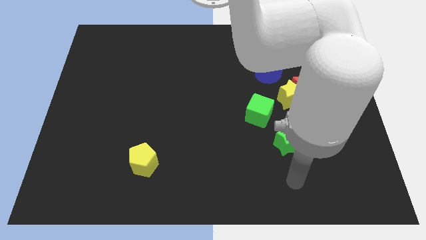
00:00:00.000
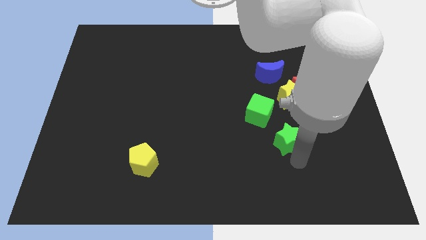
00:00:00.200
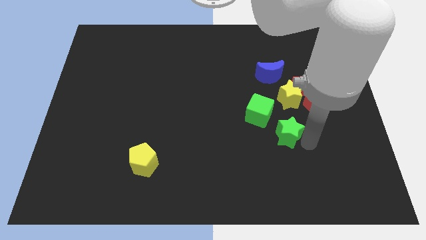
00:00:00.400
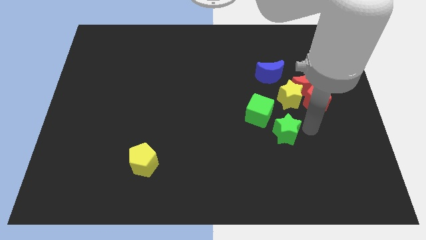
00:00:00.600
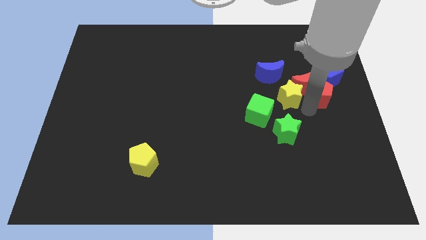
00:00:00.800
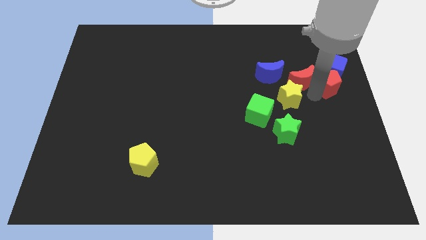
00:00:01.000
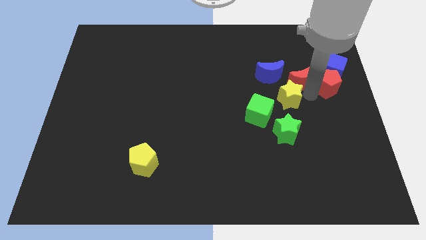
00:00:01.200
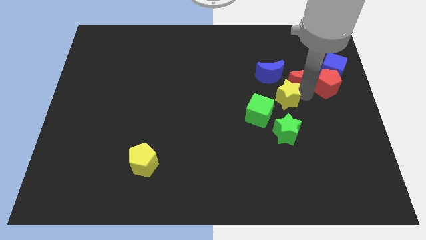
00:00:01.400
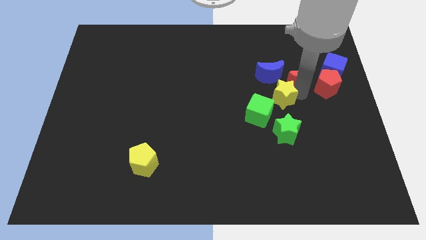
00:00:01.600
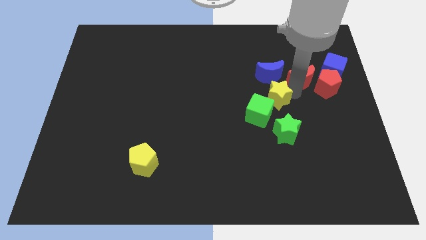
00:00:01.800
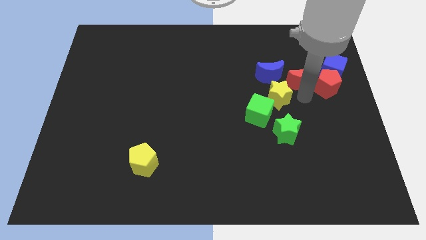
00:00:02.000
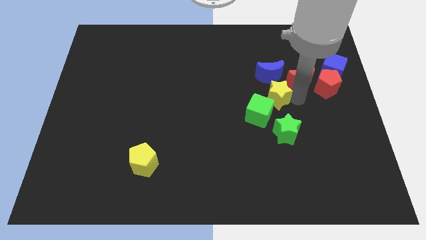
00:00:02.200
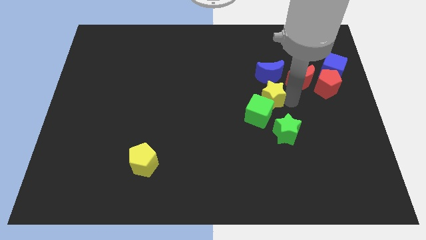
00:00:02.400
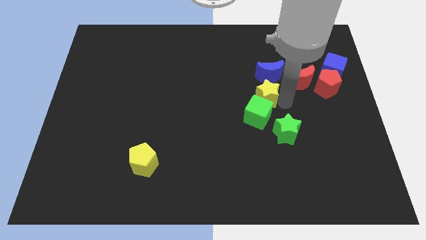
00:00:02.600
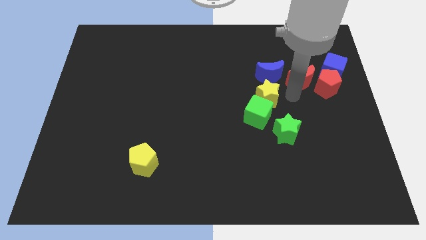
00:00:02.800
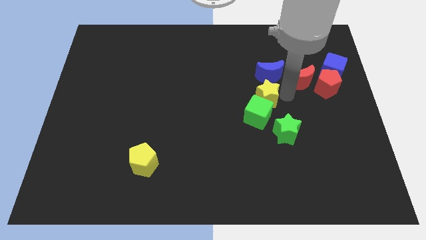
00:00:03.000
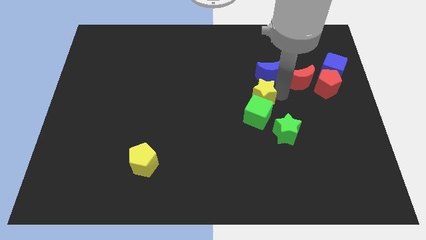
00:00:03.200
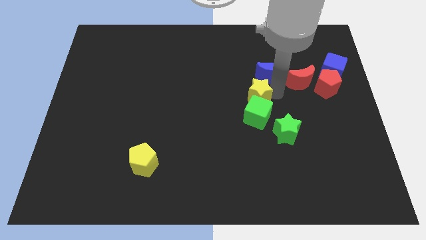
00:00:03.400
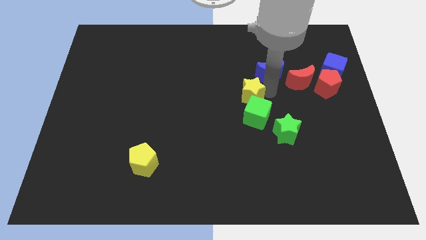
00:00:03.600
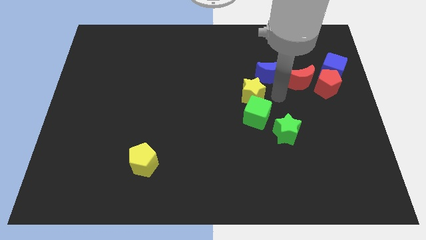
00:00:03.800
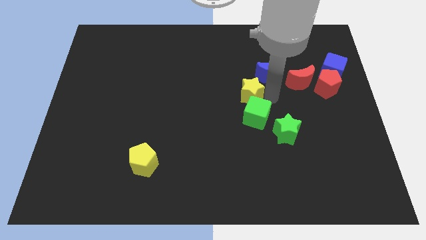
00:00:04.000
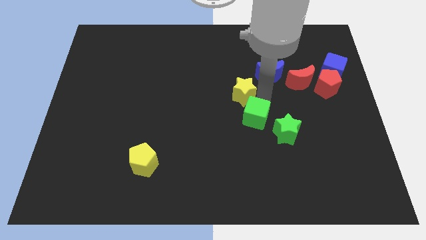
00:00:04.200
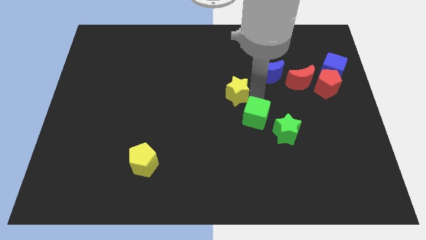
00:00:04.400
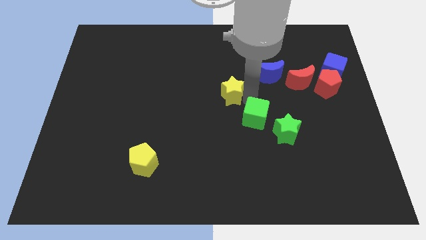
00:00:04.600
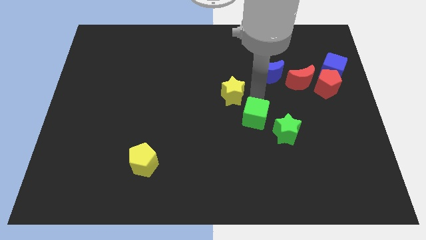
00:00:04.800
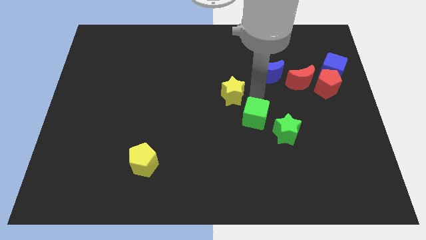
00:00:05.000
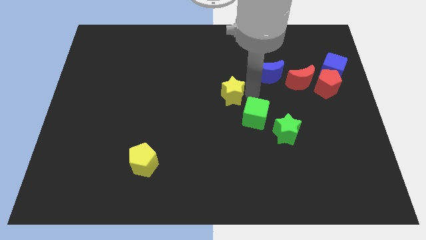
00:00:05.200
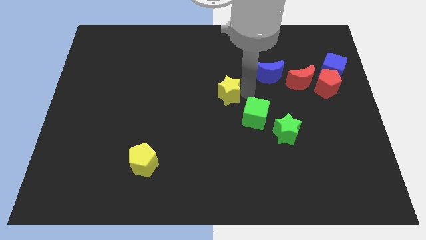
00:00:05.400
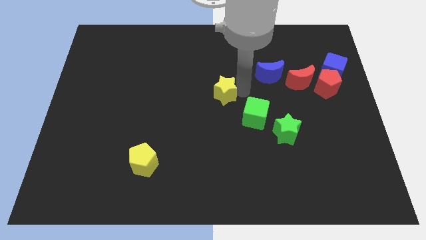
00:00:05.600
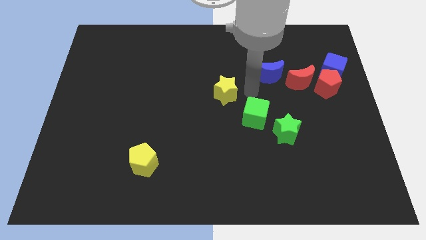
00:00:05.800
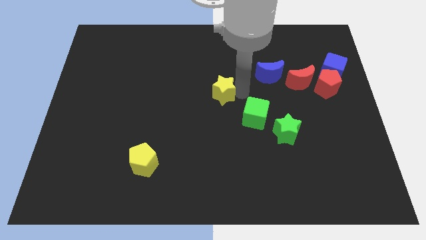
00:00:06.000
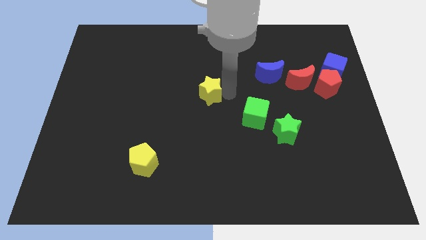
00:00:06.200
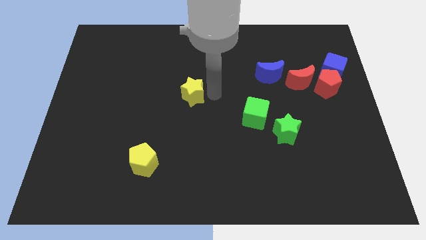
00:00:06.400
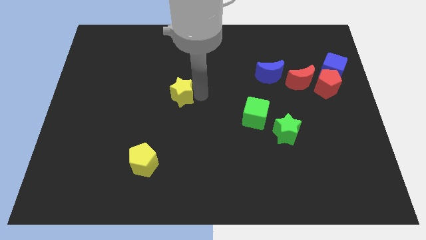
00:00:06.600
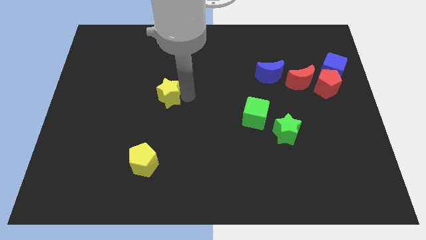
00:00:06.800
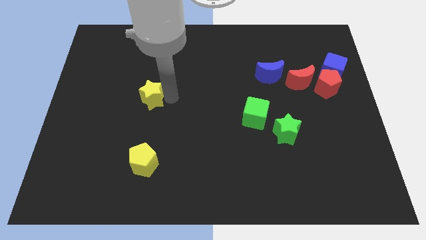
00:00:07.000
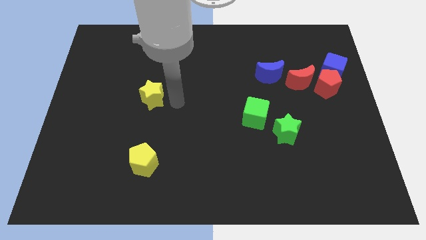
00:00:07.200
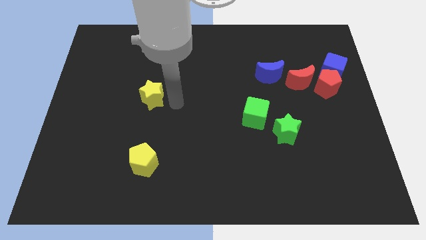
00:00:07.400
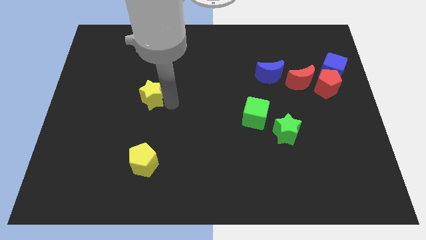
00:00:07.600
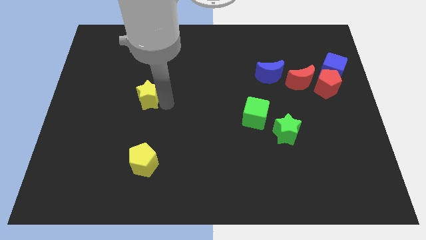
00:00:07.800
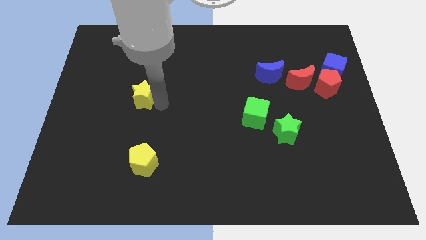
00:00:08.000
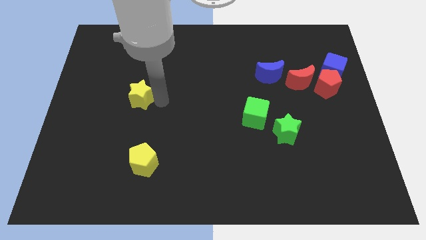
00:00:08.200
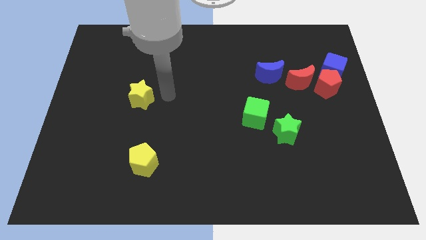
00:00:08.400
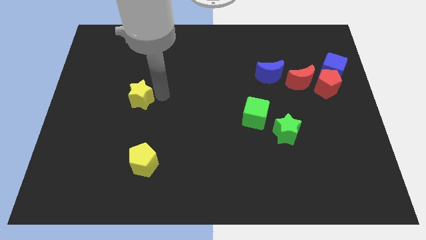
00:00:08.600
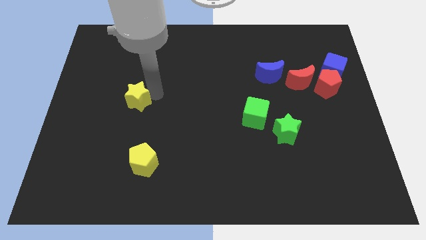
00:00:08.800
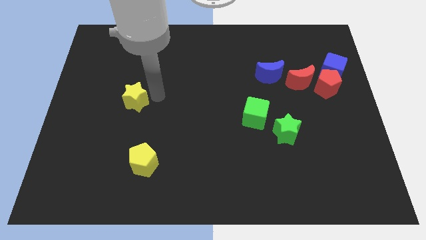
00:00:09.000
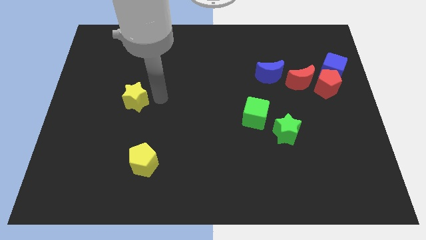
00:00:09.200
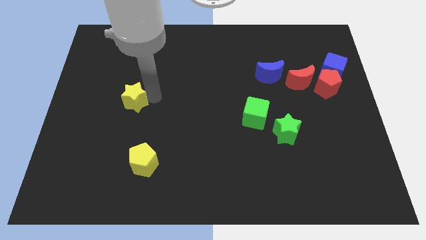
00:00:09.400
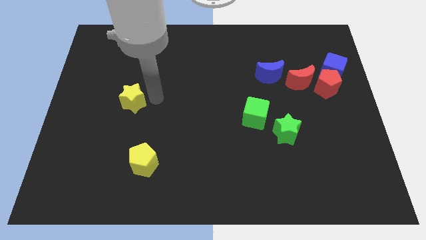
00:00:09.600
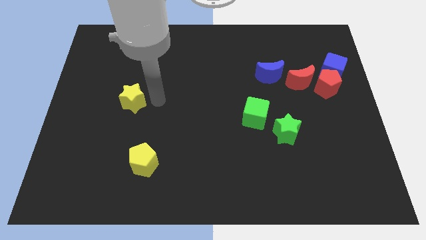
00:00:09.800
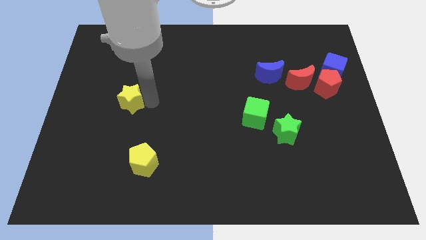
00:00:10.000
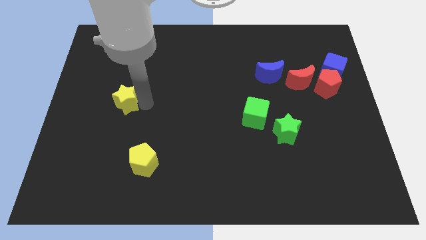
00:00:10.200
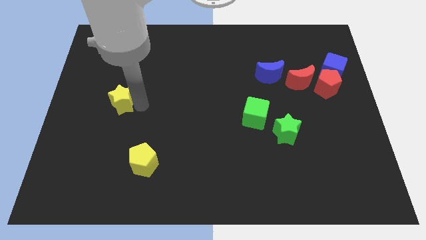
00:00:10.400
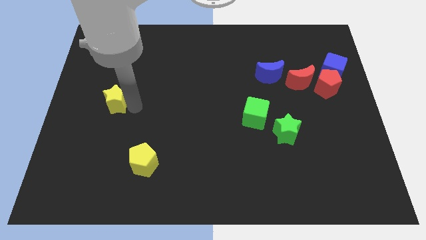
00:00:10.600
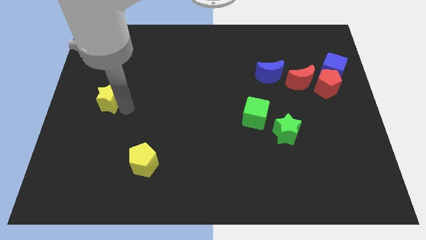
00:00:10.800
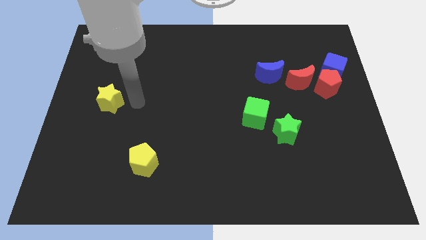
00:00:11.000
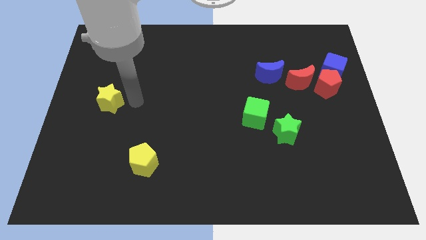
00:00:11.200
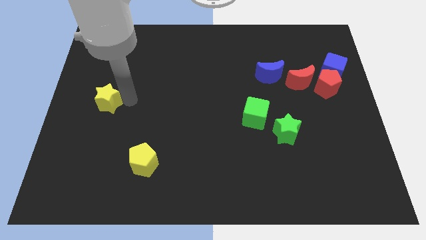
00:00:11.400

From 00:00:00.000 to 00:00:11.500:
slide the yellow star to the left side of the board
